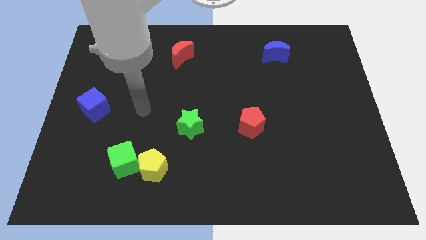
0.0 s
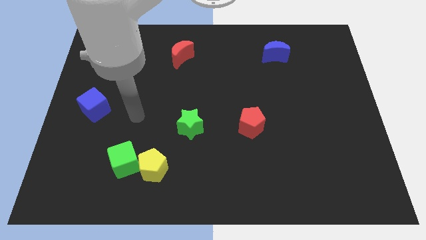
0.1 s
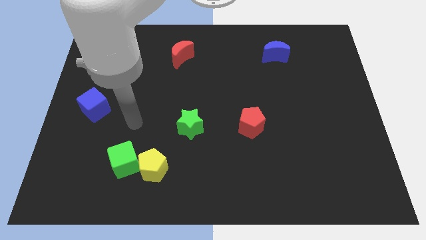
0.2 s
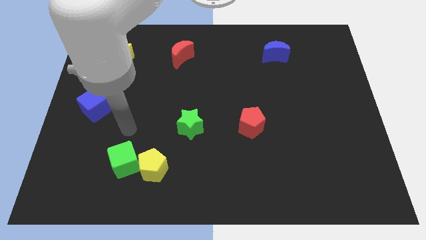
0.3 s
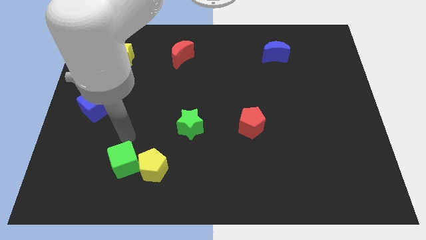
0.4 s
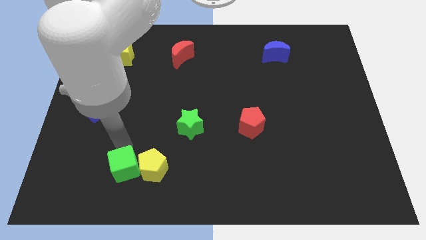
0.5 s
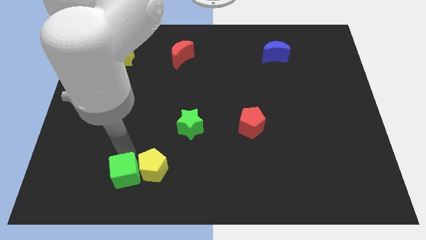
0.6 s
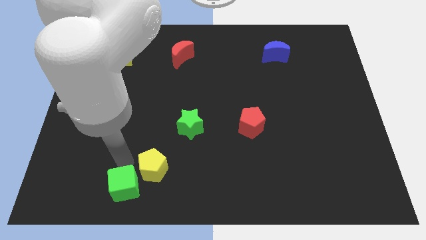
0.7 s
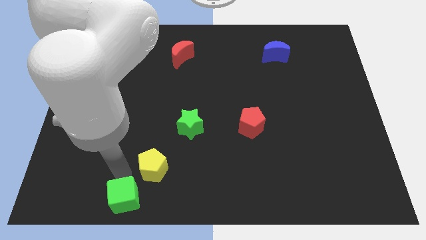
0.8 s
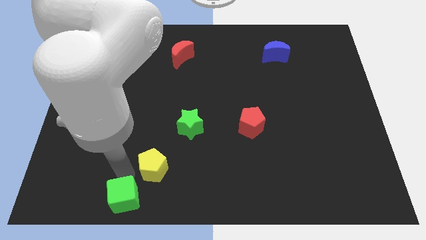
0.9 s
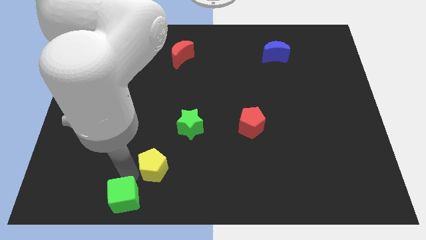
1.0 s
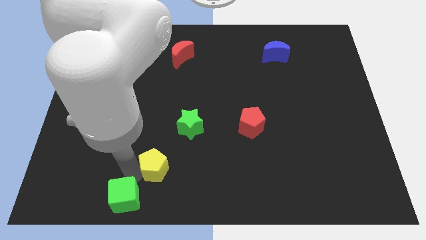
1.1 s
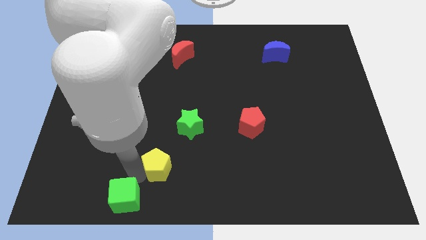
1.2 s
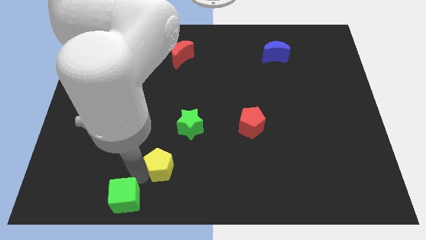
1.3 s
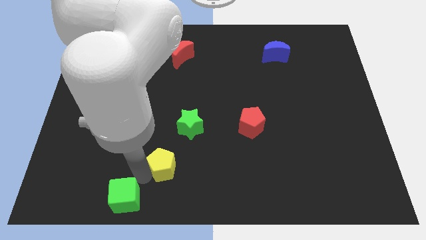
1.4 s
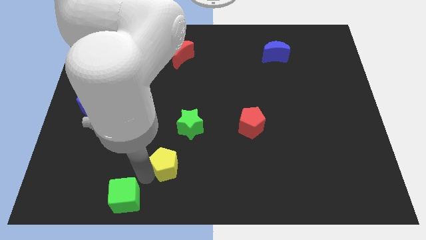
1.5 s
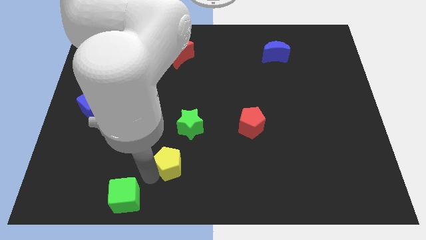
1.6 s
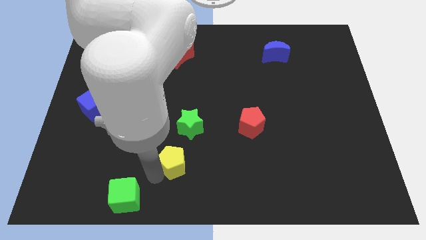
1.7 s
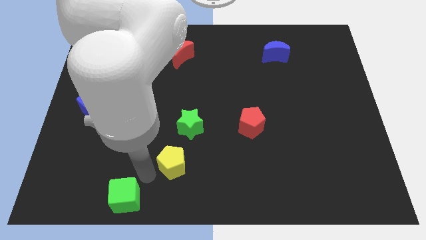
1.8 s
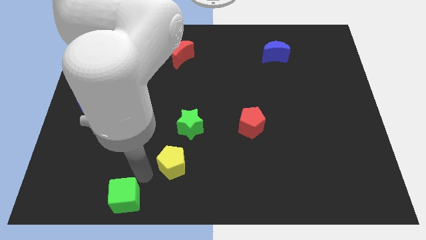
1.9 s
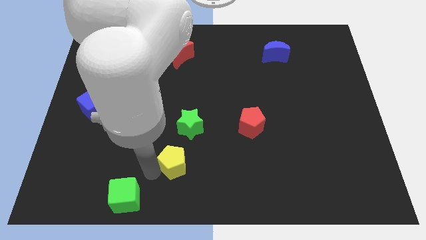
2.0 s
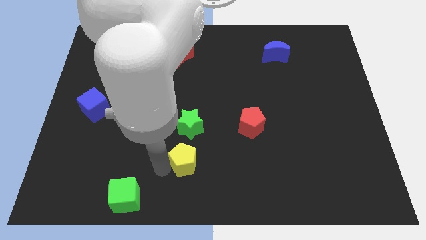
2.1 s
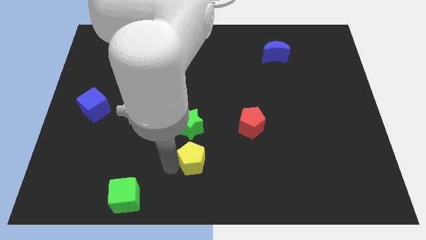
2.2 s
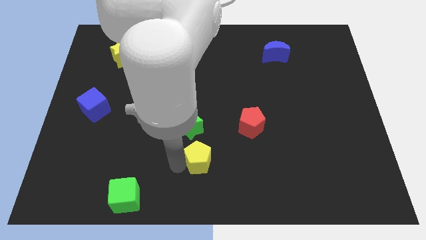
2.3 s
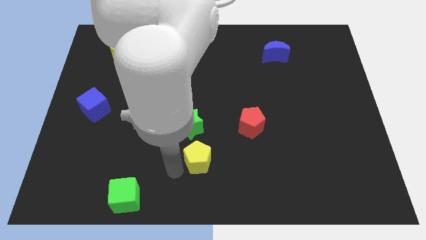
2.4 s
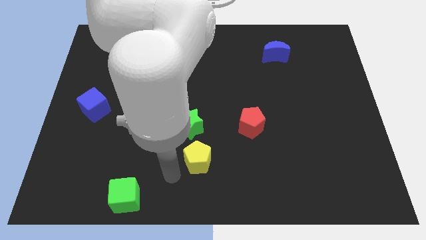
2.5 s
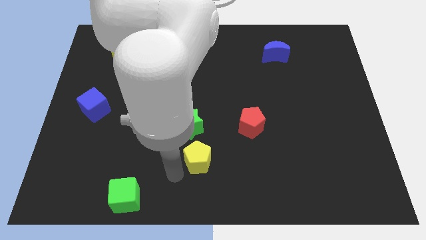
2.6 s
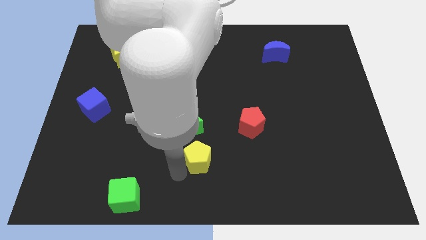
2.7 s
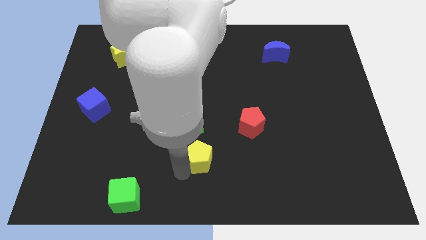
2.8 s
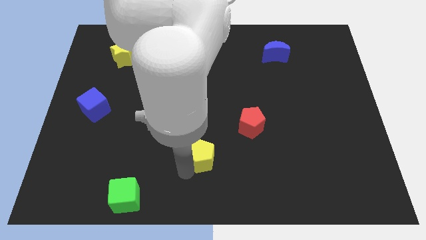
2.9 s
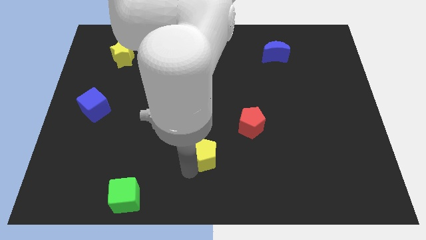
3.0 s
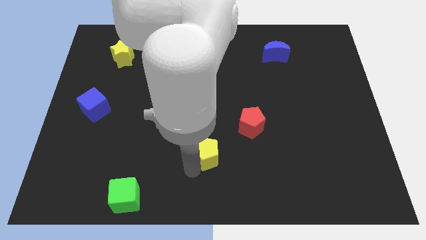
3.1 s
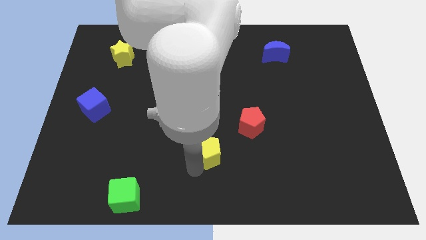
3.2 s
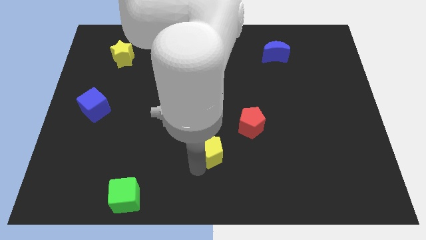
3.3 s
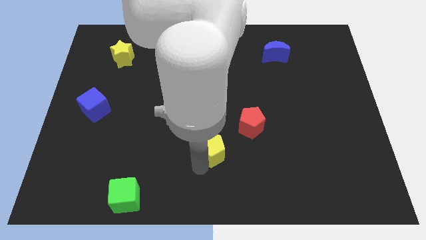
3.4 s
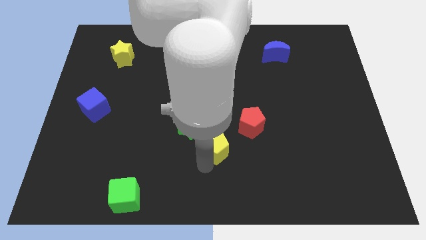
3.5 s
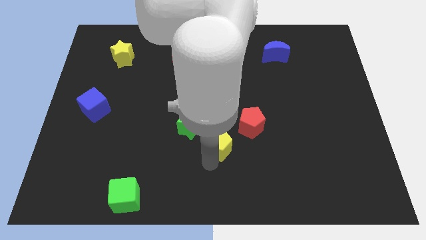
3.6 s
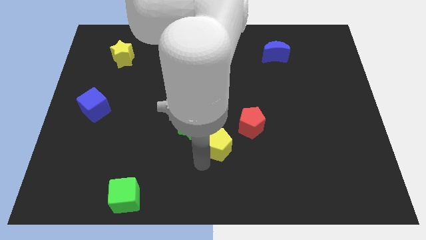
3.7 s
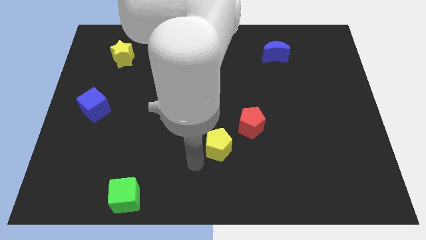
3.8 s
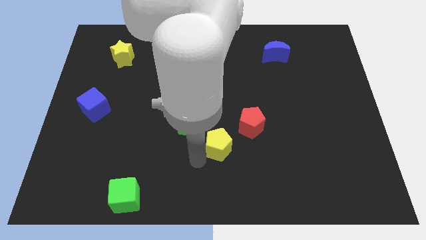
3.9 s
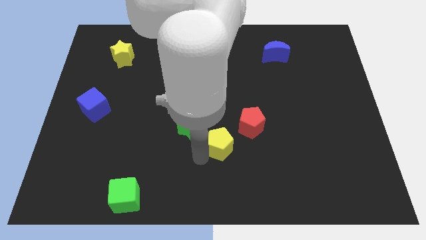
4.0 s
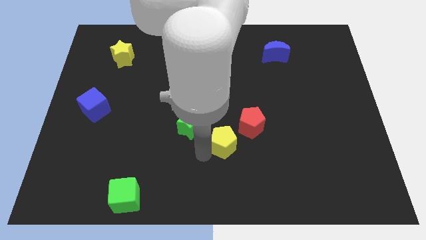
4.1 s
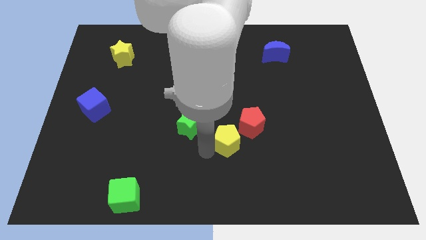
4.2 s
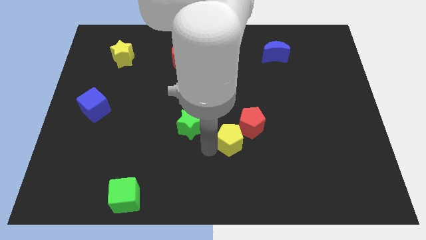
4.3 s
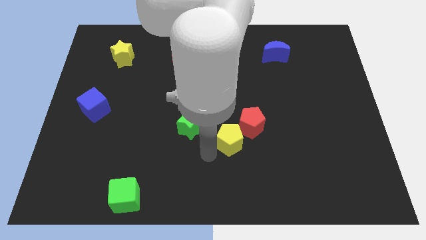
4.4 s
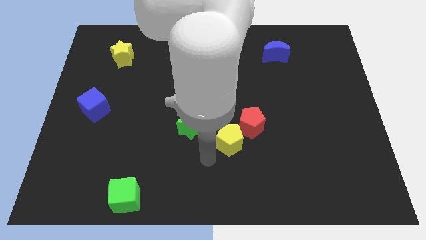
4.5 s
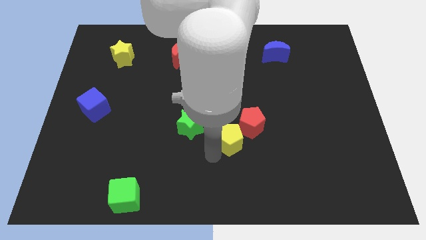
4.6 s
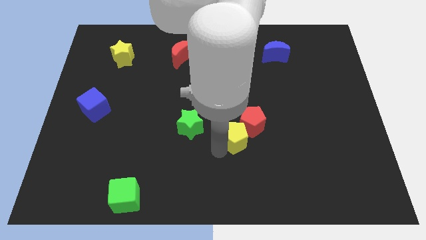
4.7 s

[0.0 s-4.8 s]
put the yellow pentagon towards the red pentagon

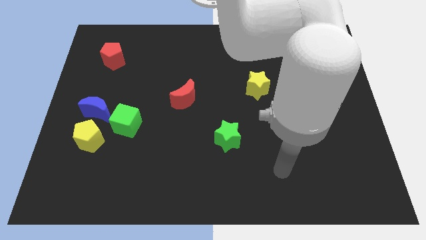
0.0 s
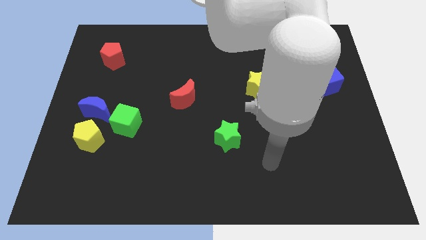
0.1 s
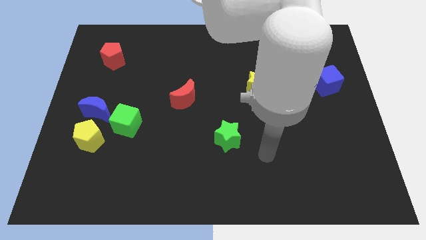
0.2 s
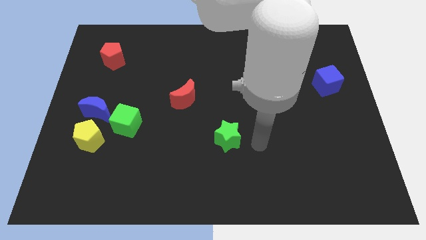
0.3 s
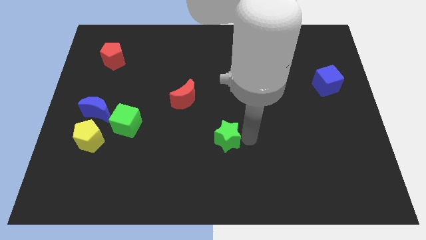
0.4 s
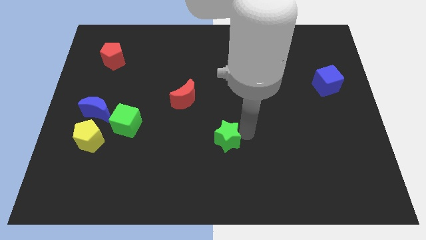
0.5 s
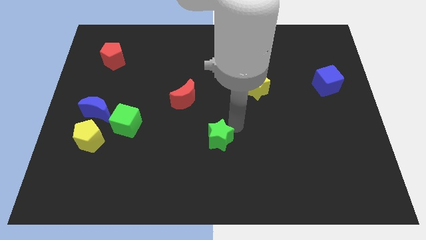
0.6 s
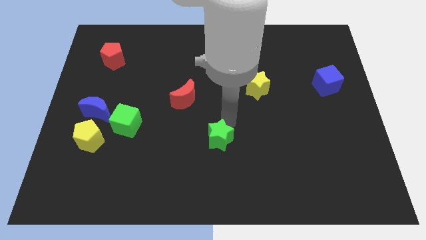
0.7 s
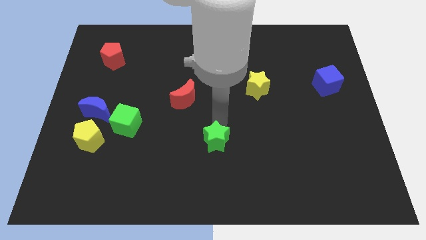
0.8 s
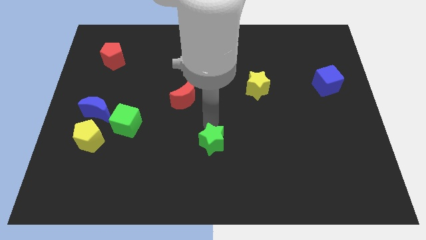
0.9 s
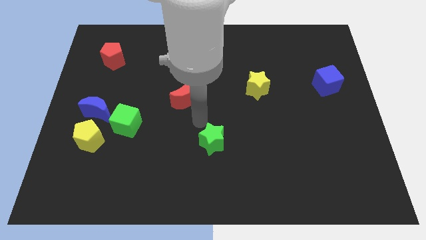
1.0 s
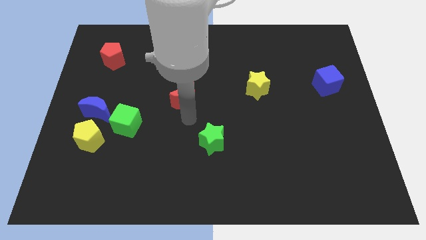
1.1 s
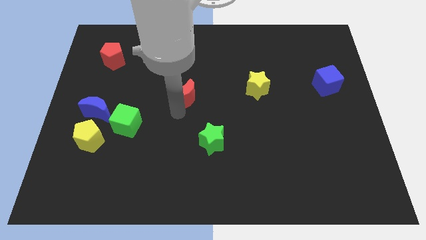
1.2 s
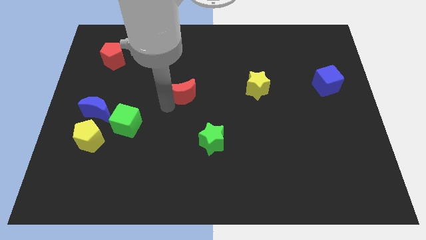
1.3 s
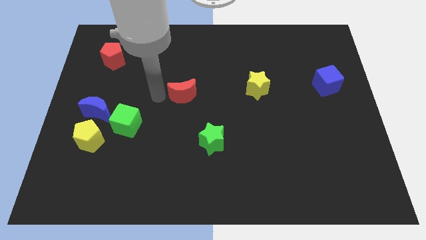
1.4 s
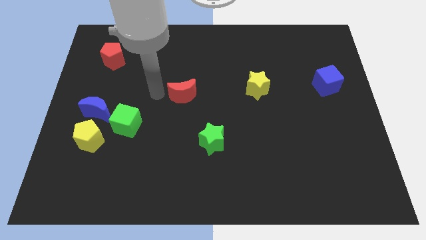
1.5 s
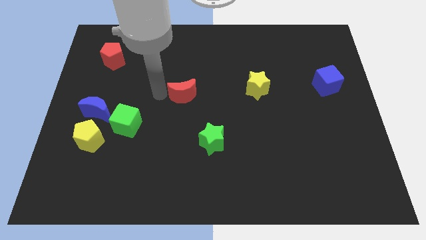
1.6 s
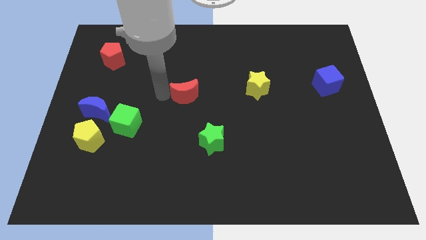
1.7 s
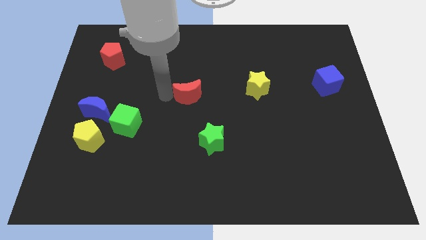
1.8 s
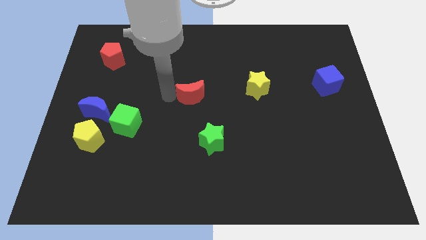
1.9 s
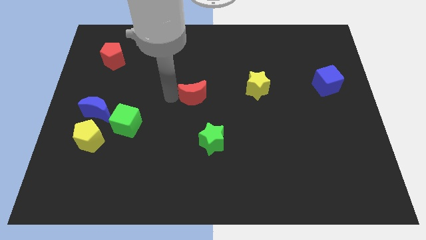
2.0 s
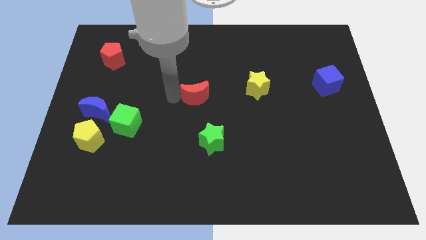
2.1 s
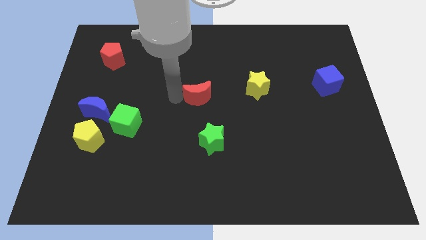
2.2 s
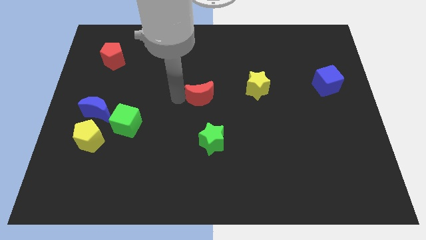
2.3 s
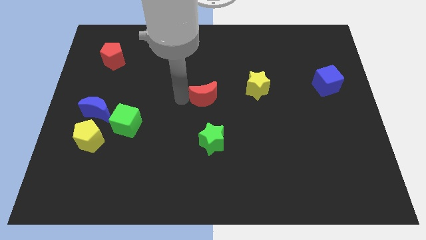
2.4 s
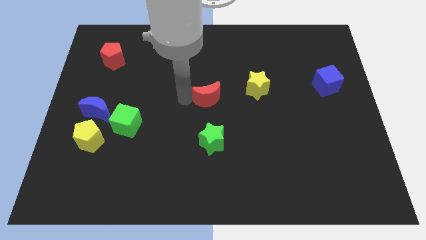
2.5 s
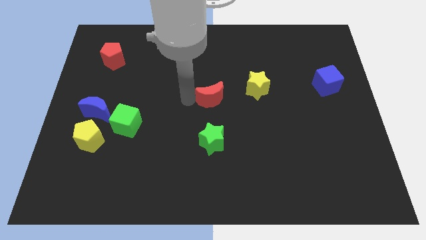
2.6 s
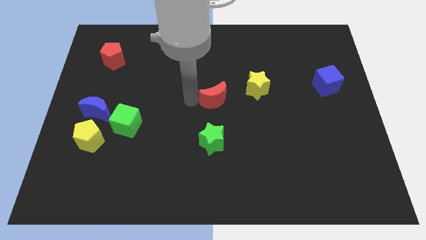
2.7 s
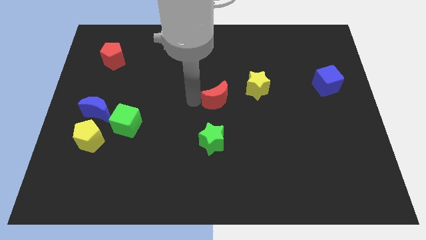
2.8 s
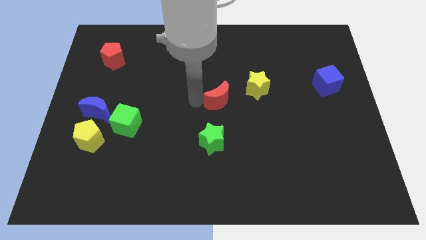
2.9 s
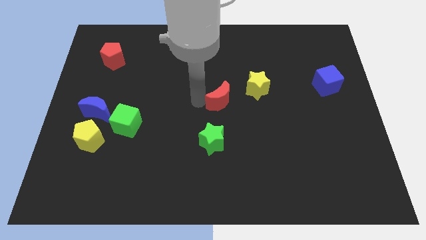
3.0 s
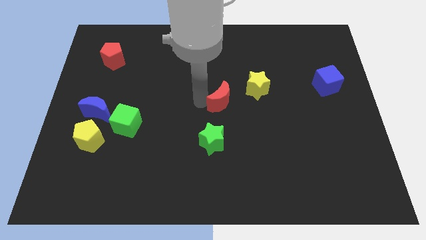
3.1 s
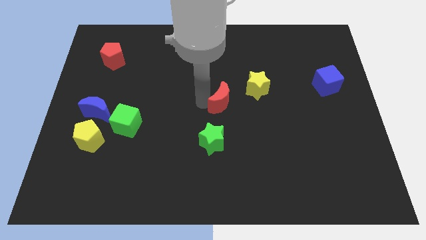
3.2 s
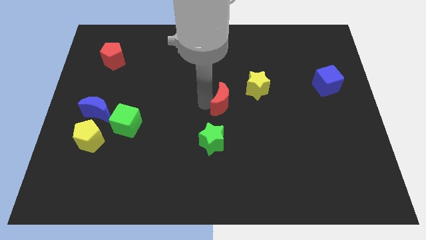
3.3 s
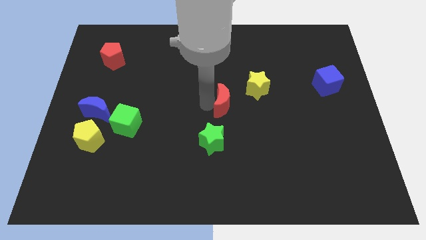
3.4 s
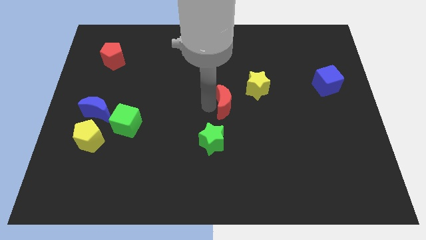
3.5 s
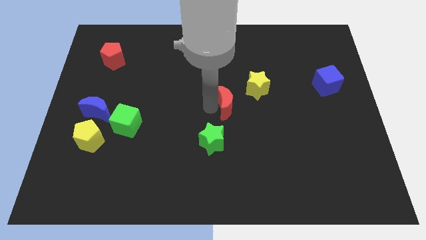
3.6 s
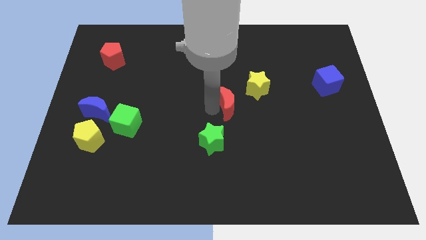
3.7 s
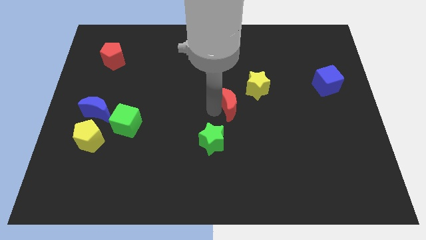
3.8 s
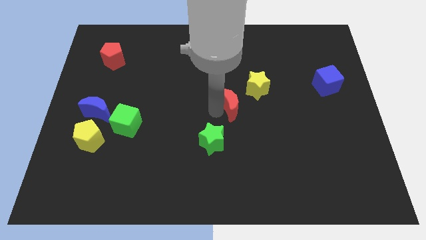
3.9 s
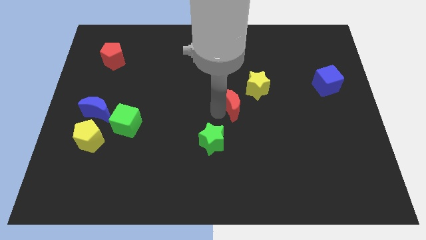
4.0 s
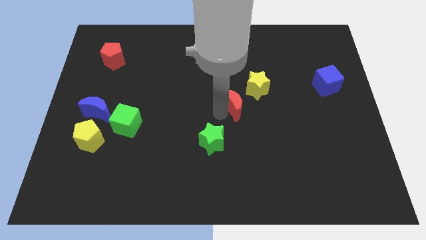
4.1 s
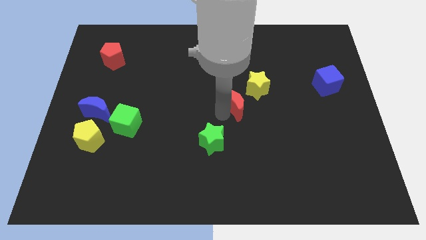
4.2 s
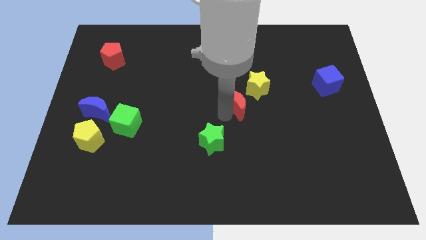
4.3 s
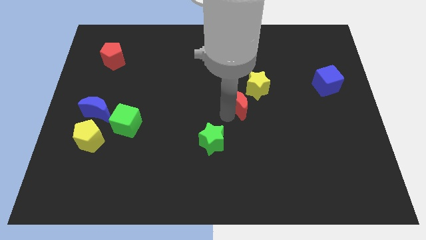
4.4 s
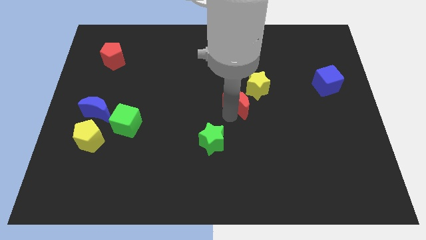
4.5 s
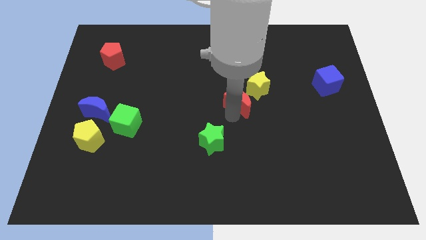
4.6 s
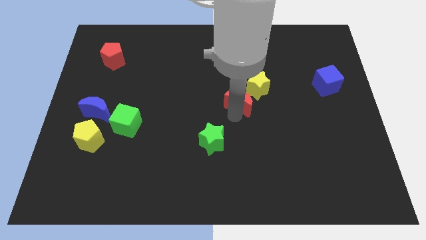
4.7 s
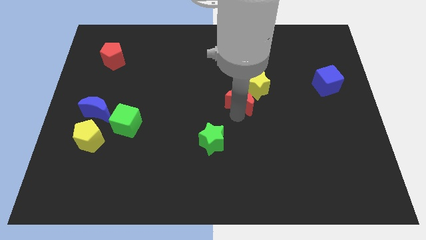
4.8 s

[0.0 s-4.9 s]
move the red moon next to the yellow star
